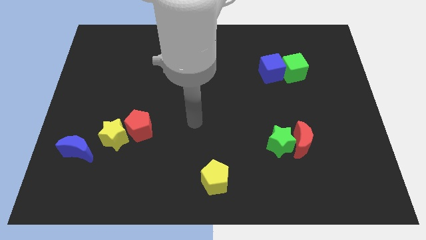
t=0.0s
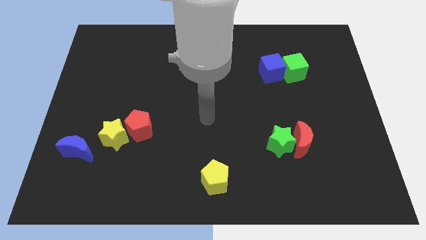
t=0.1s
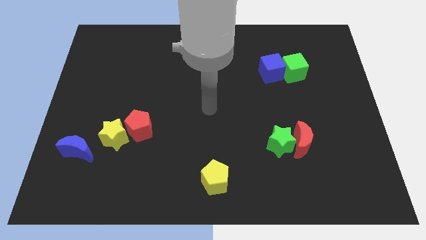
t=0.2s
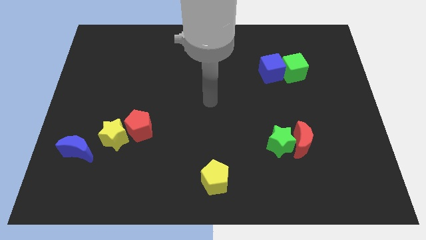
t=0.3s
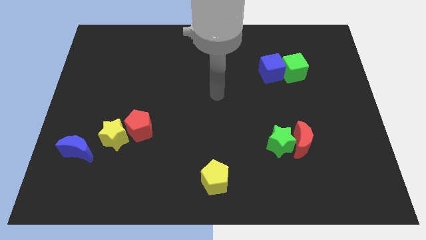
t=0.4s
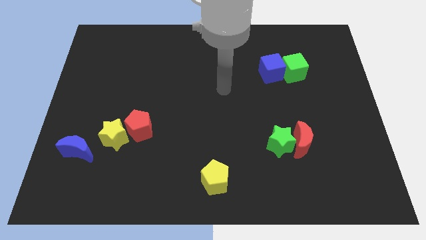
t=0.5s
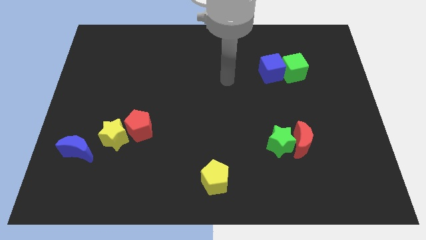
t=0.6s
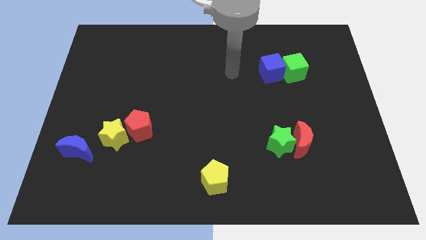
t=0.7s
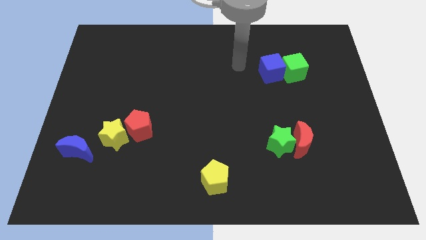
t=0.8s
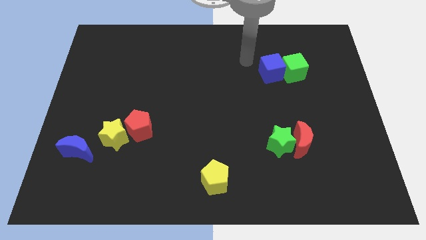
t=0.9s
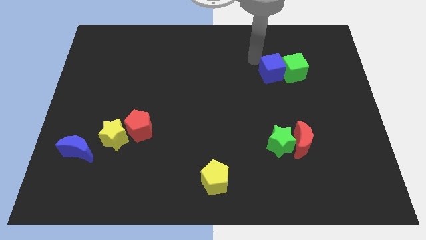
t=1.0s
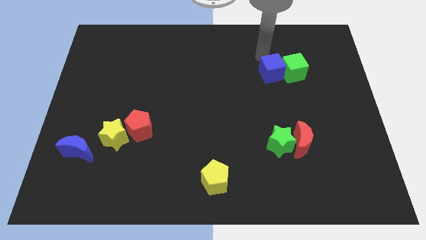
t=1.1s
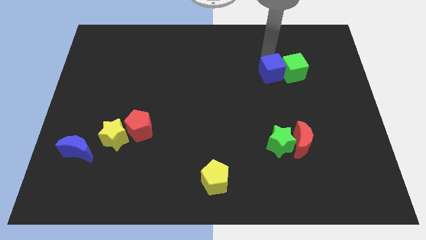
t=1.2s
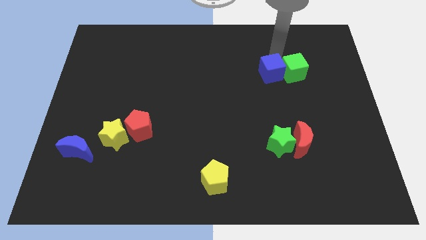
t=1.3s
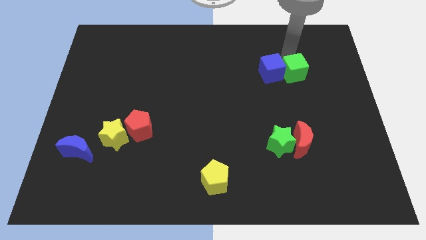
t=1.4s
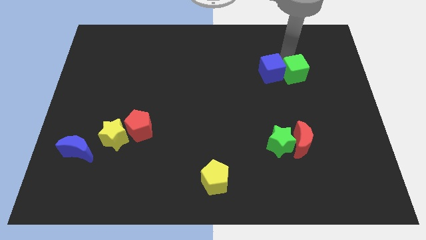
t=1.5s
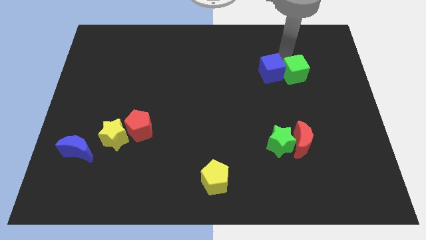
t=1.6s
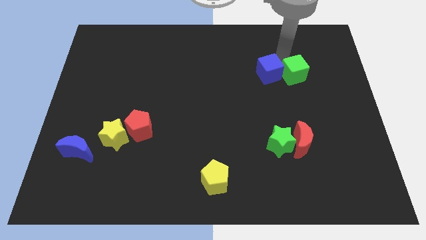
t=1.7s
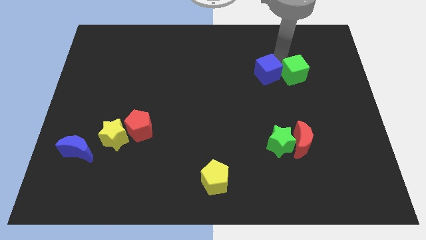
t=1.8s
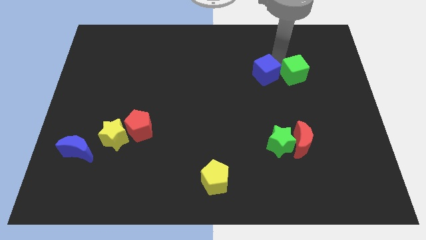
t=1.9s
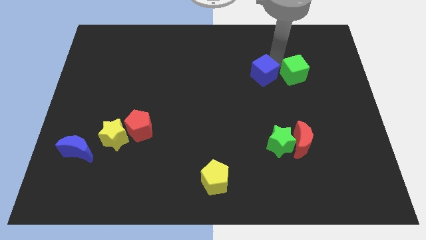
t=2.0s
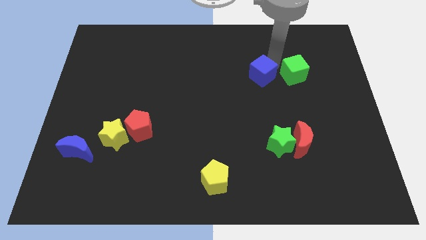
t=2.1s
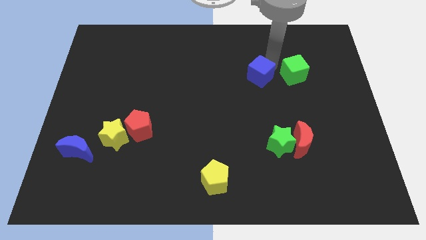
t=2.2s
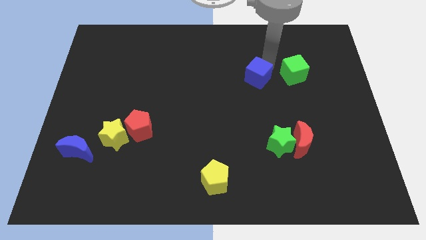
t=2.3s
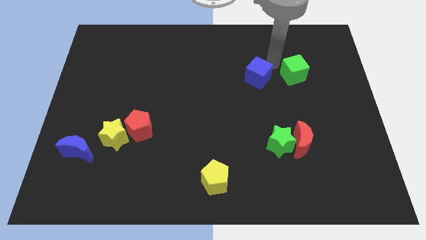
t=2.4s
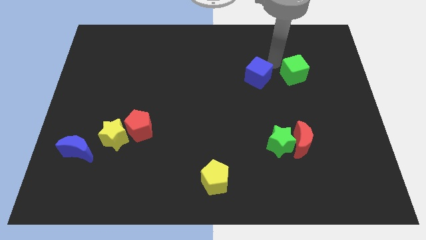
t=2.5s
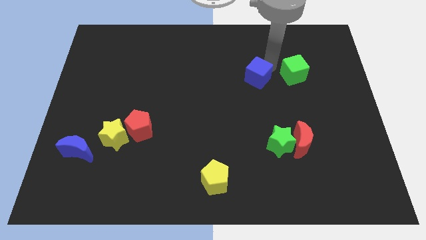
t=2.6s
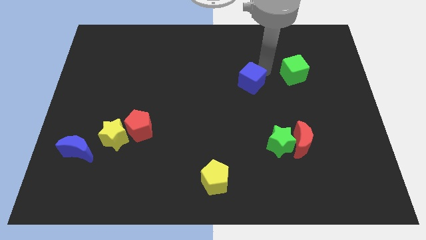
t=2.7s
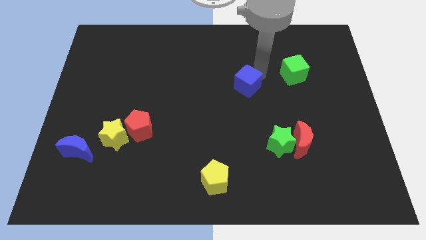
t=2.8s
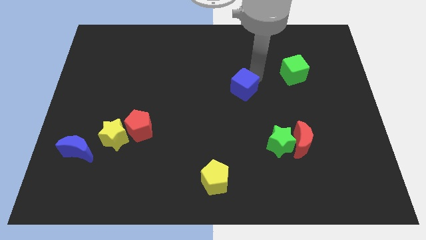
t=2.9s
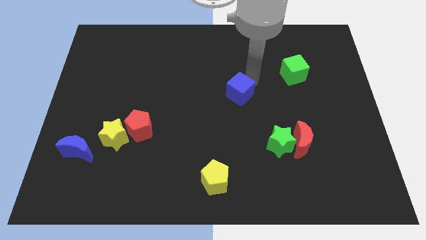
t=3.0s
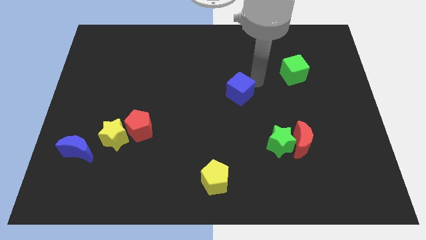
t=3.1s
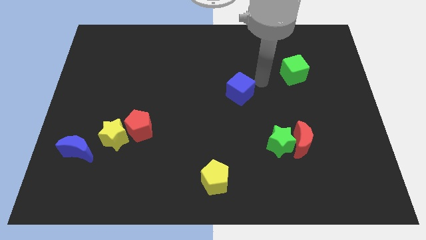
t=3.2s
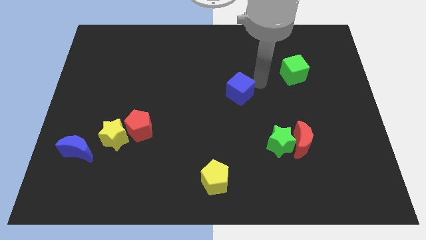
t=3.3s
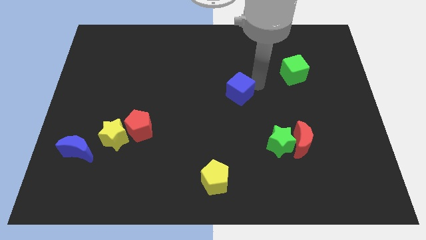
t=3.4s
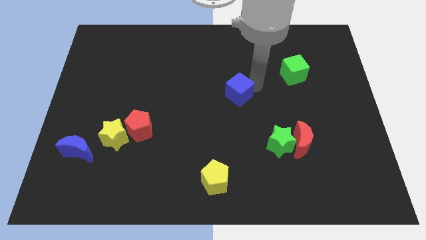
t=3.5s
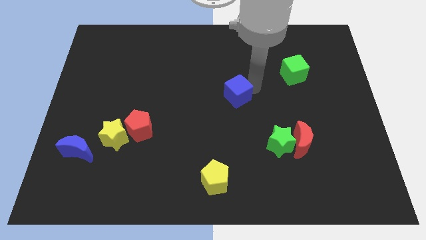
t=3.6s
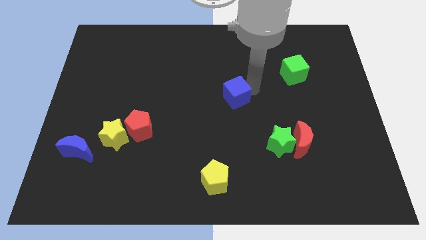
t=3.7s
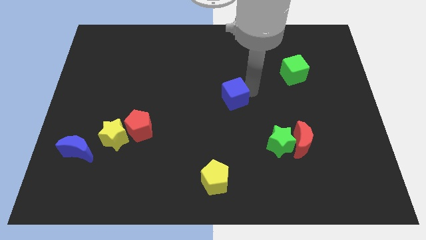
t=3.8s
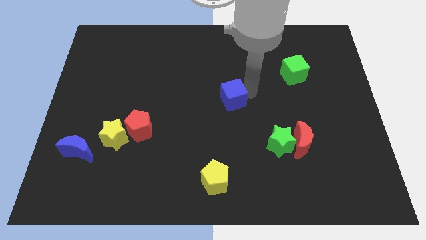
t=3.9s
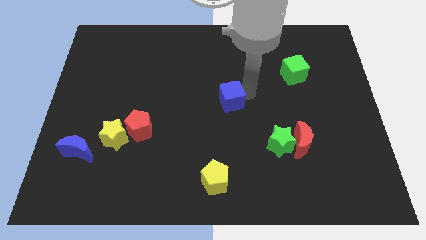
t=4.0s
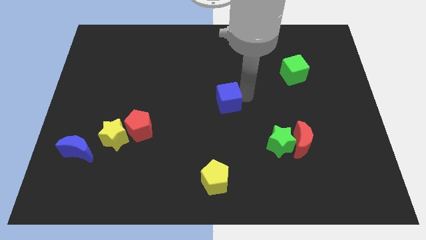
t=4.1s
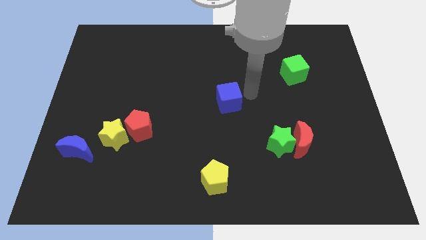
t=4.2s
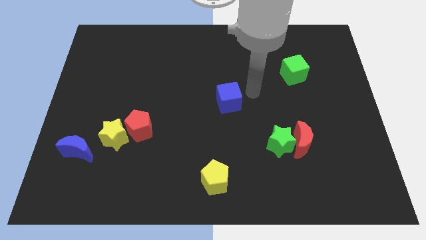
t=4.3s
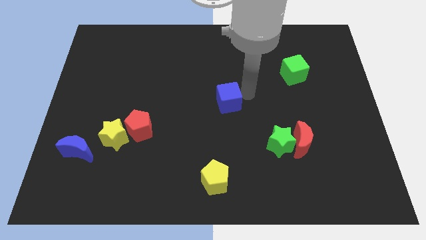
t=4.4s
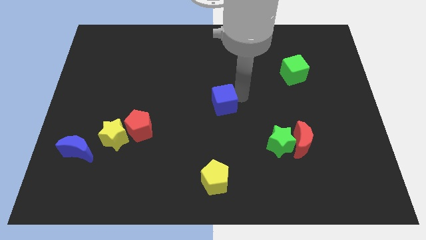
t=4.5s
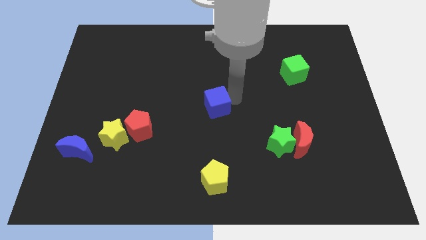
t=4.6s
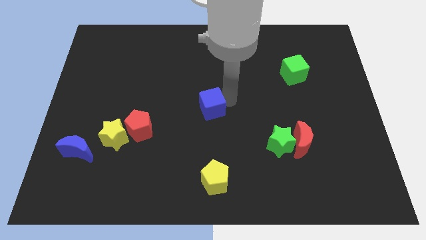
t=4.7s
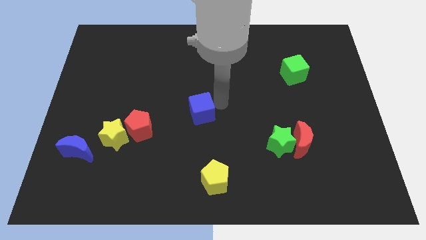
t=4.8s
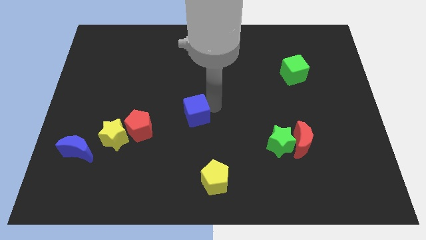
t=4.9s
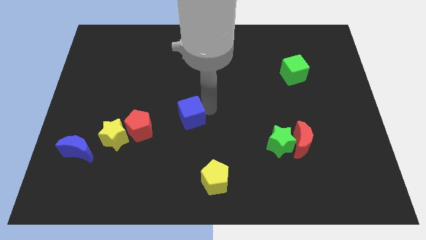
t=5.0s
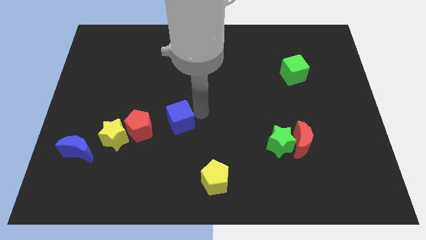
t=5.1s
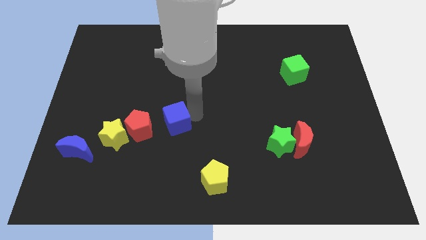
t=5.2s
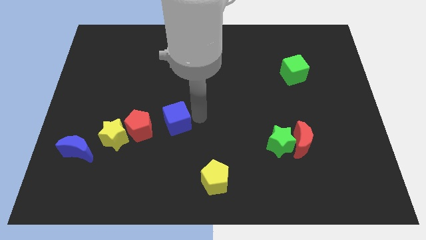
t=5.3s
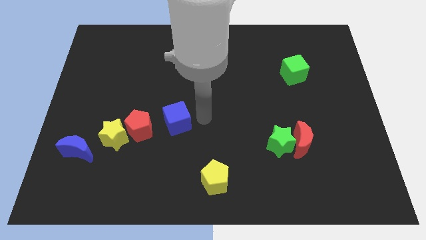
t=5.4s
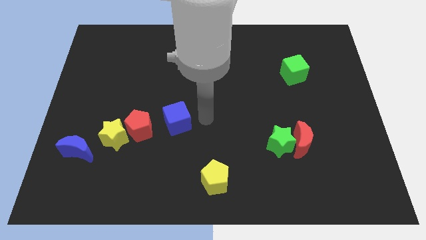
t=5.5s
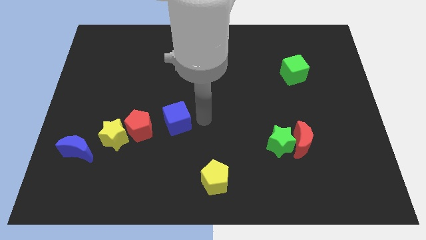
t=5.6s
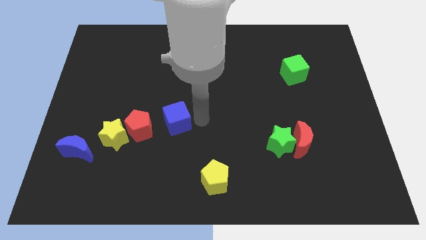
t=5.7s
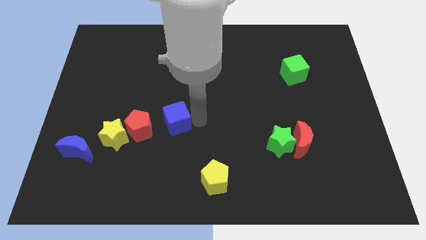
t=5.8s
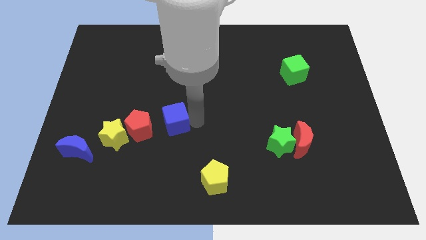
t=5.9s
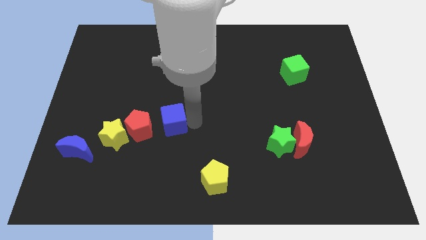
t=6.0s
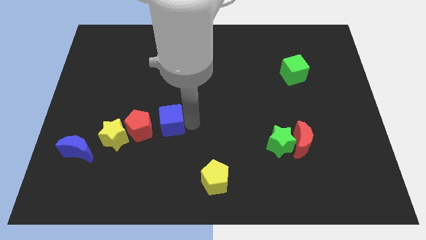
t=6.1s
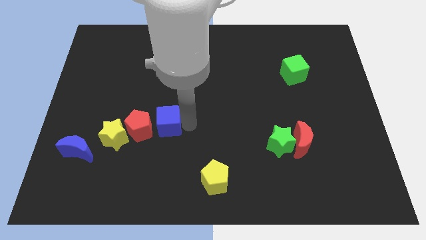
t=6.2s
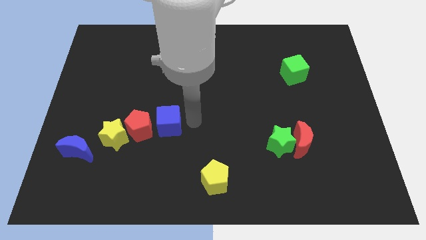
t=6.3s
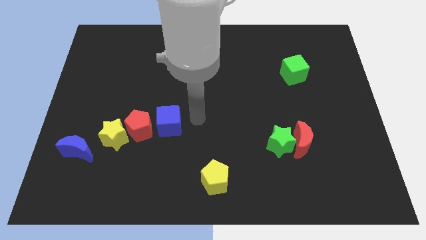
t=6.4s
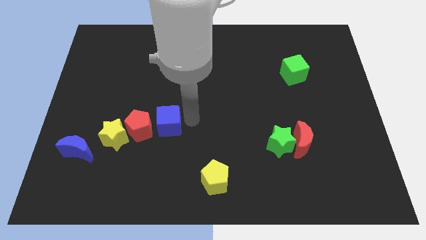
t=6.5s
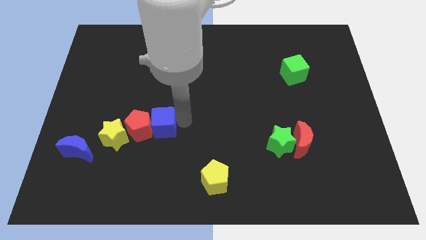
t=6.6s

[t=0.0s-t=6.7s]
put the blue cube close to the red pentagon

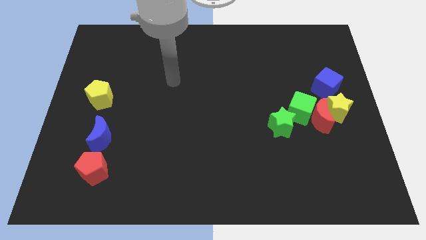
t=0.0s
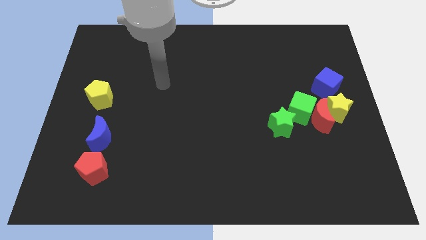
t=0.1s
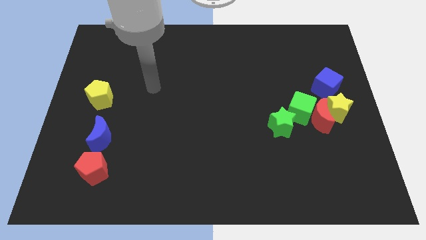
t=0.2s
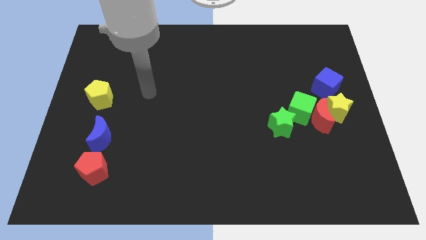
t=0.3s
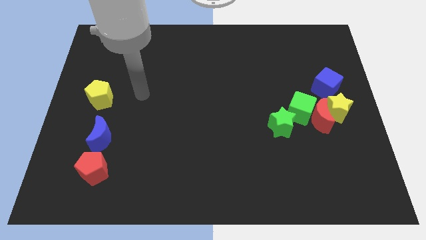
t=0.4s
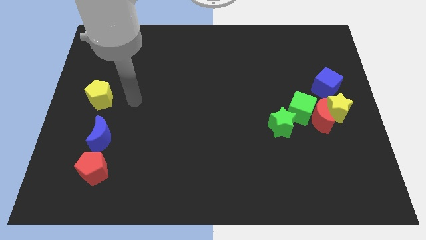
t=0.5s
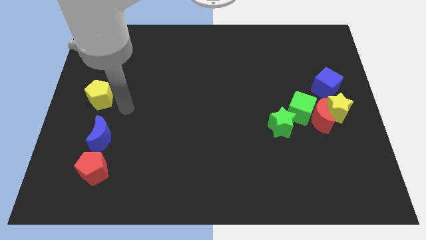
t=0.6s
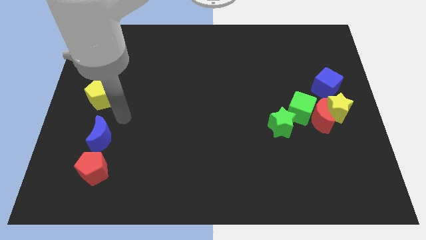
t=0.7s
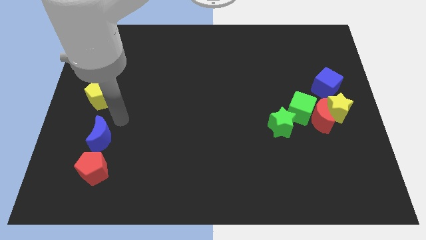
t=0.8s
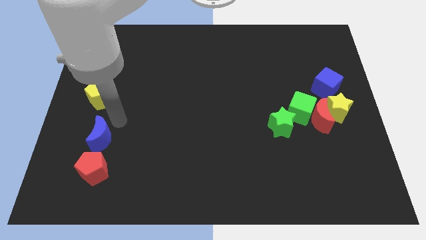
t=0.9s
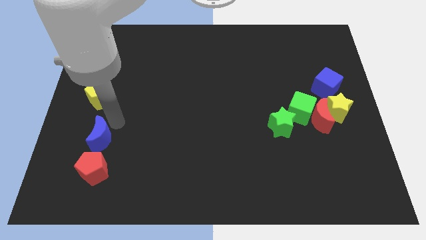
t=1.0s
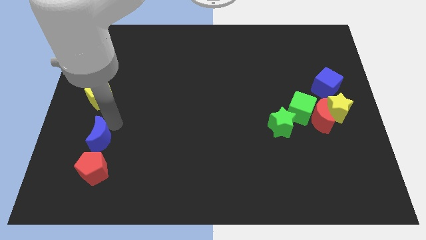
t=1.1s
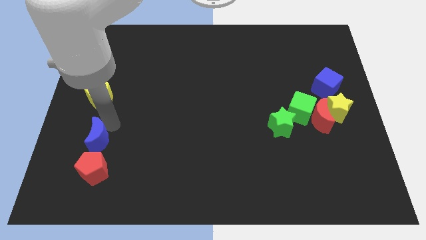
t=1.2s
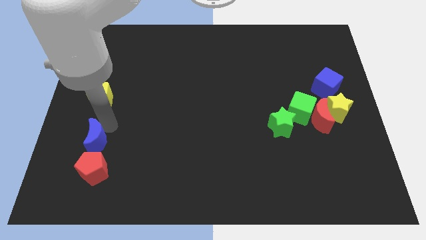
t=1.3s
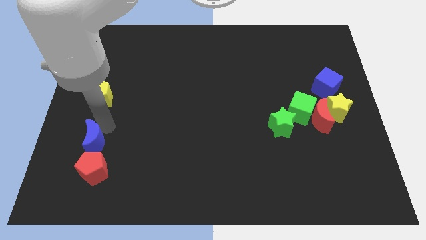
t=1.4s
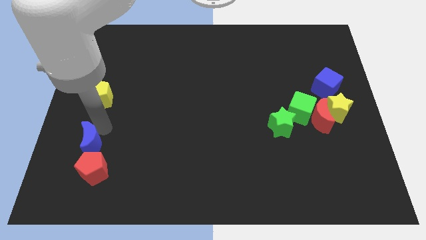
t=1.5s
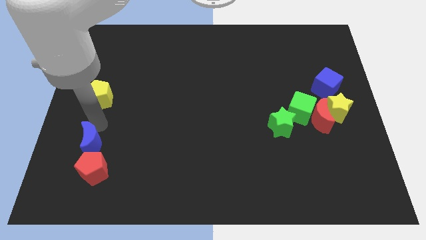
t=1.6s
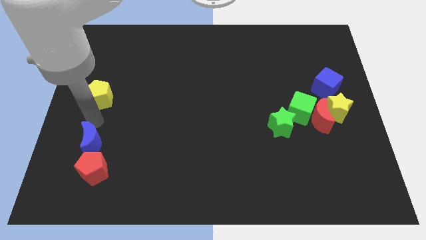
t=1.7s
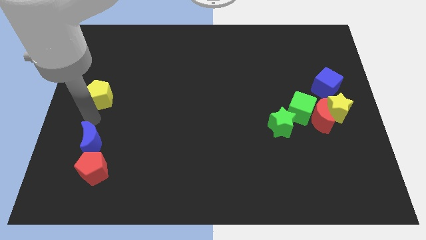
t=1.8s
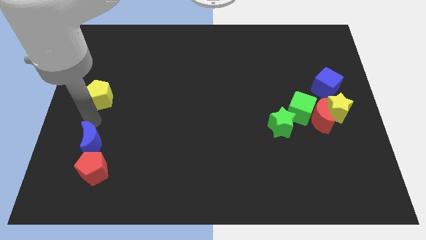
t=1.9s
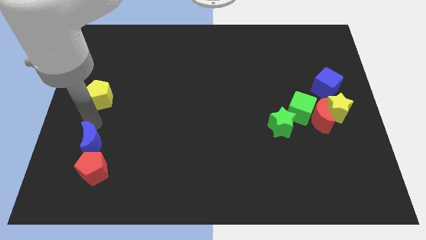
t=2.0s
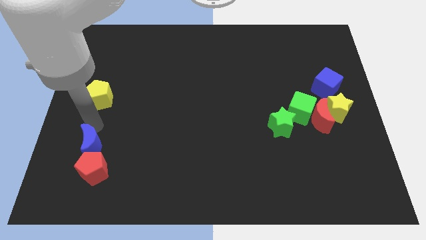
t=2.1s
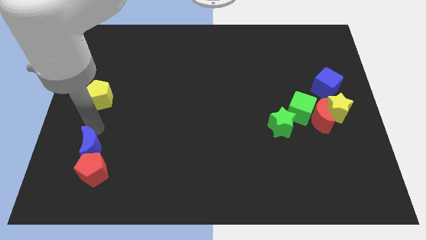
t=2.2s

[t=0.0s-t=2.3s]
move the blue moon close to the red pentagon
